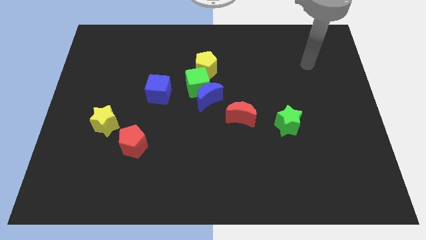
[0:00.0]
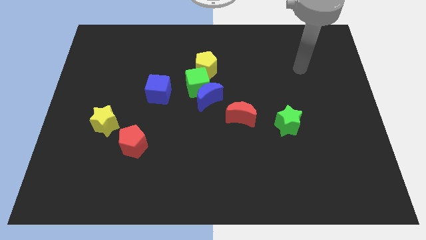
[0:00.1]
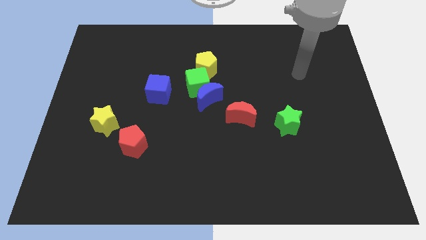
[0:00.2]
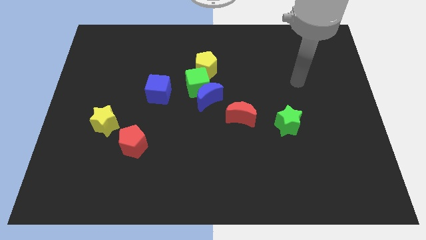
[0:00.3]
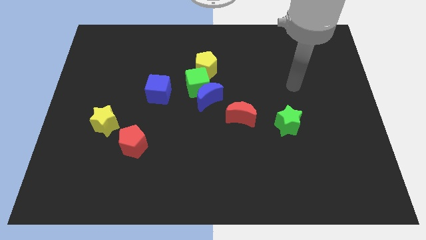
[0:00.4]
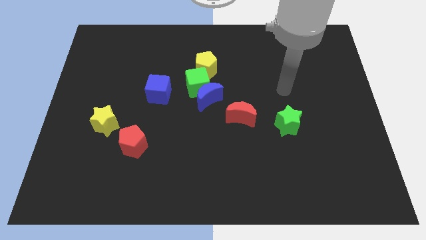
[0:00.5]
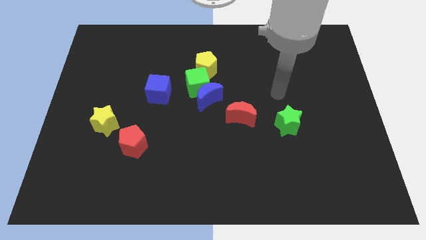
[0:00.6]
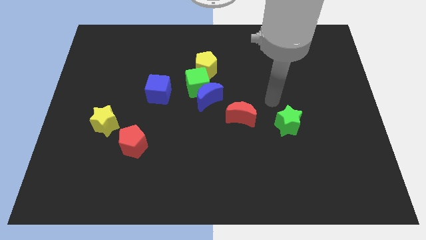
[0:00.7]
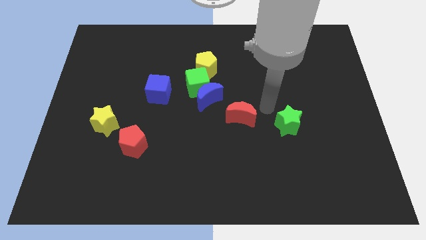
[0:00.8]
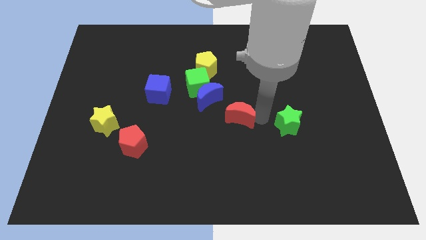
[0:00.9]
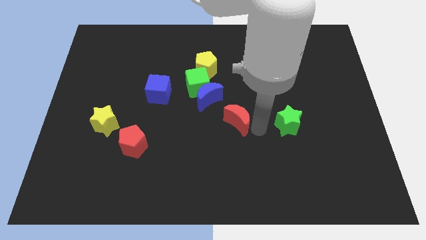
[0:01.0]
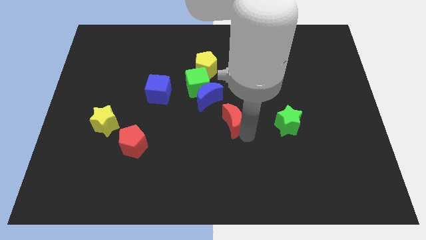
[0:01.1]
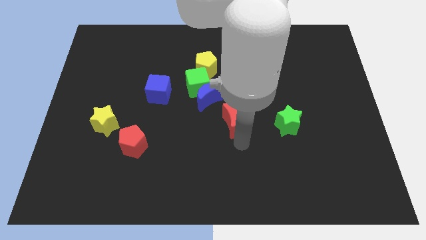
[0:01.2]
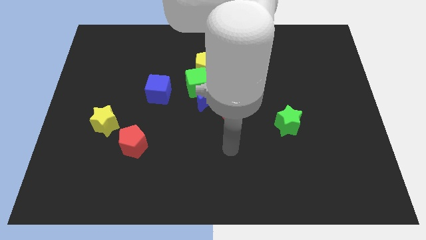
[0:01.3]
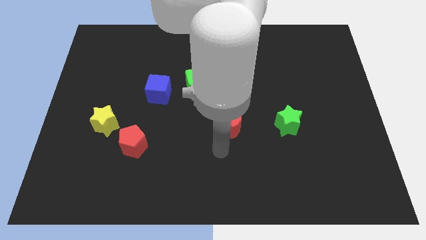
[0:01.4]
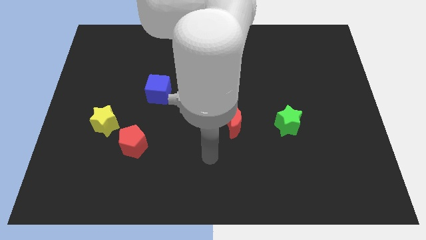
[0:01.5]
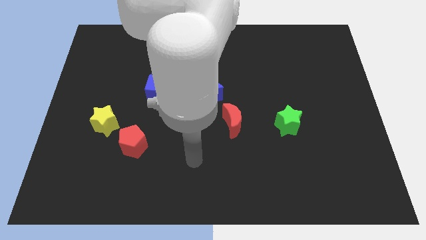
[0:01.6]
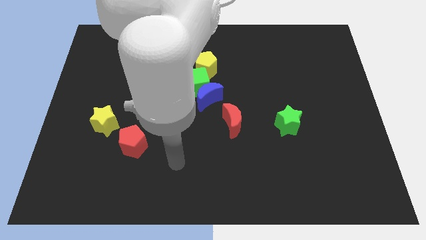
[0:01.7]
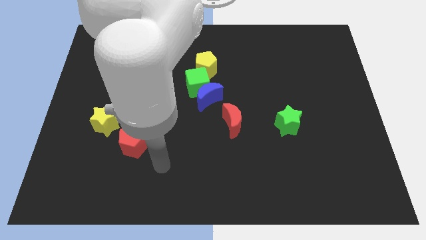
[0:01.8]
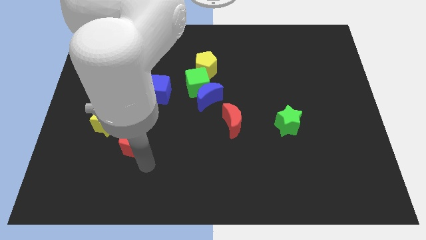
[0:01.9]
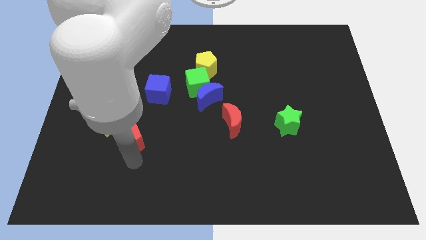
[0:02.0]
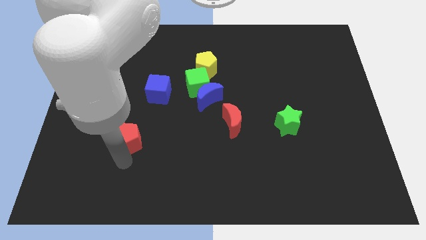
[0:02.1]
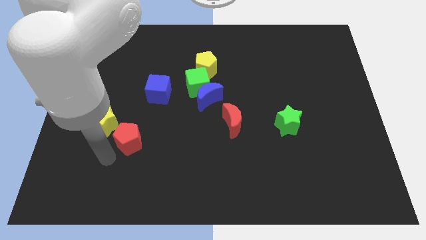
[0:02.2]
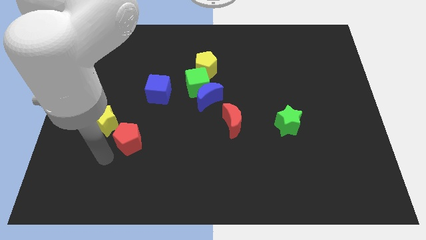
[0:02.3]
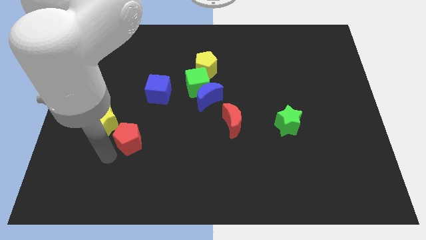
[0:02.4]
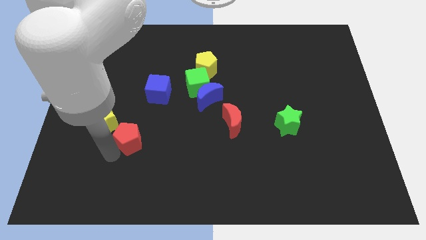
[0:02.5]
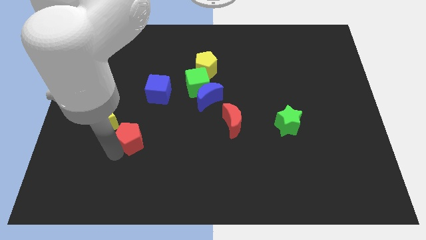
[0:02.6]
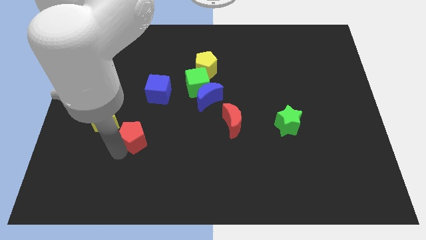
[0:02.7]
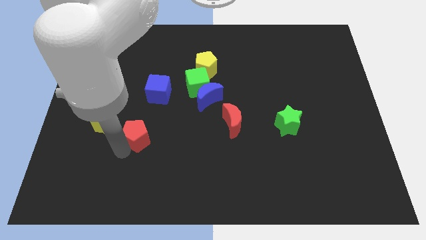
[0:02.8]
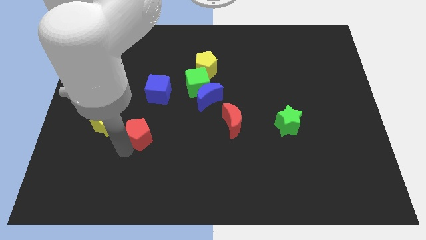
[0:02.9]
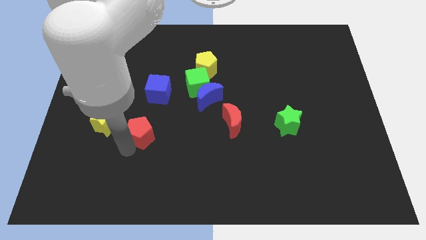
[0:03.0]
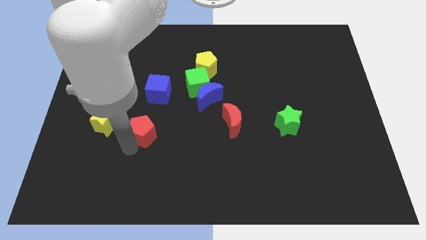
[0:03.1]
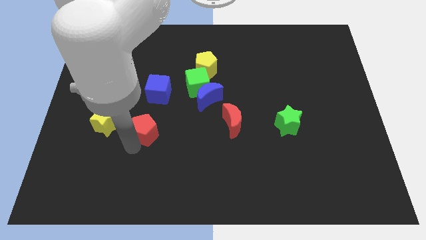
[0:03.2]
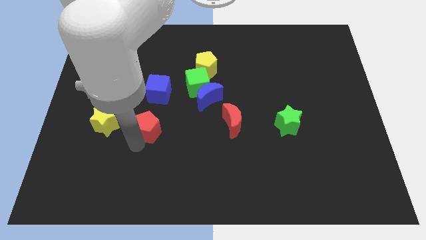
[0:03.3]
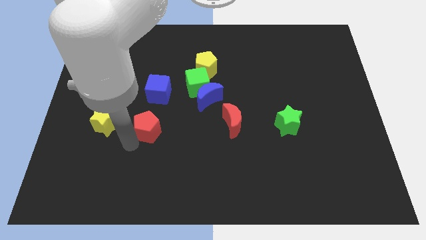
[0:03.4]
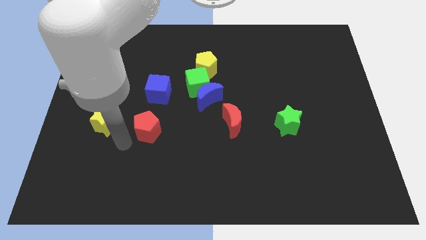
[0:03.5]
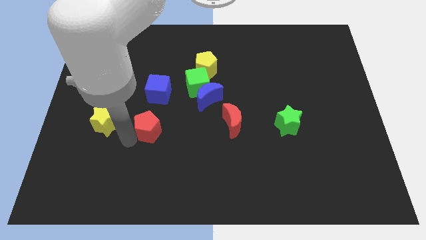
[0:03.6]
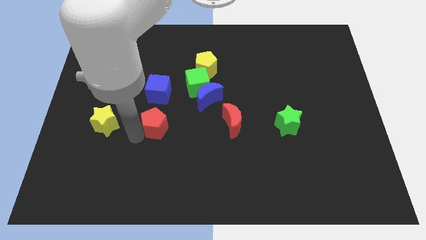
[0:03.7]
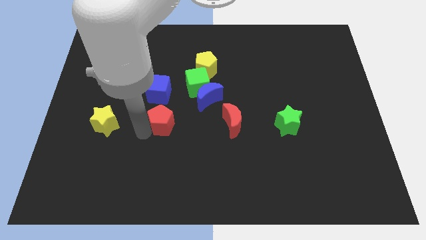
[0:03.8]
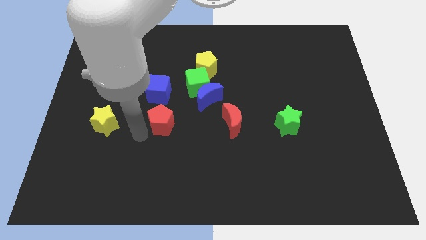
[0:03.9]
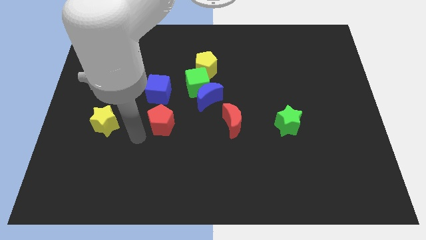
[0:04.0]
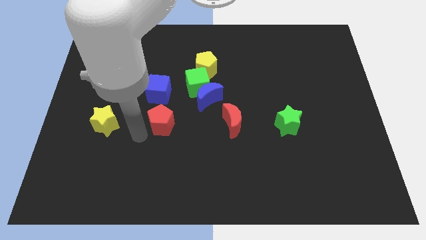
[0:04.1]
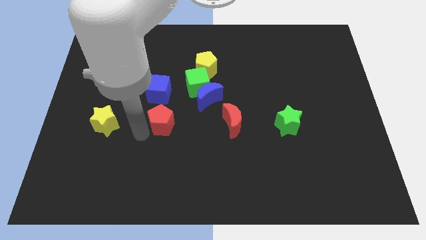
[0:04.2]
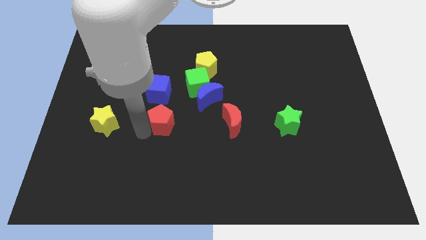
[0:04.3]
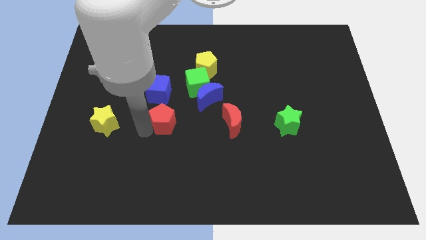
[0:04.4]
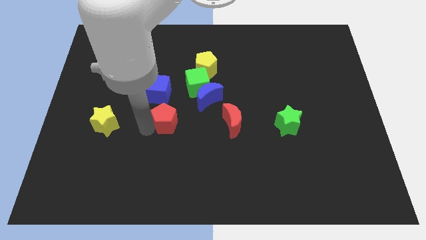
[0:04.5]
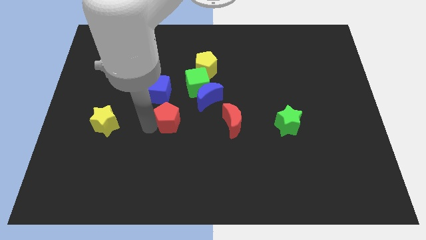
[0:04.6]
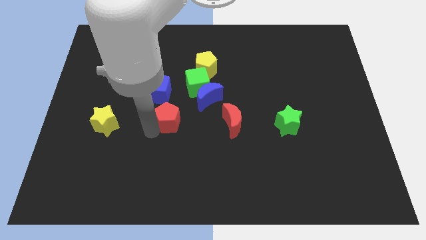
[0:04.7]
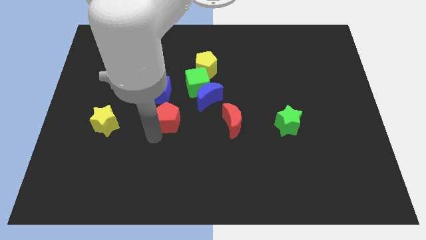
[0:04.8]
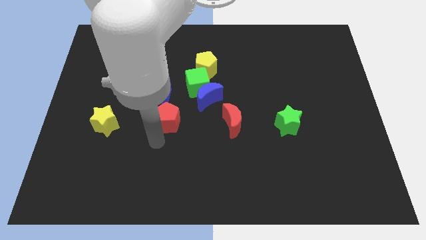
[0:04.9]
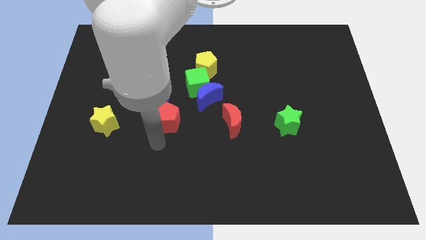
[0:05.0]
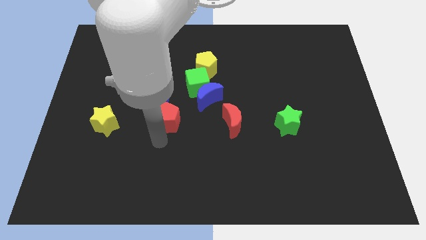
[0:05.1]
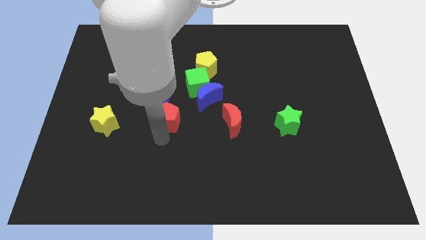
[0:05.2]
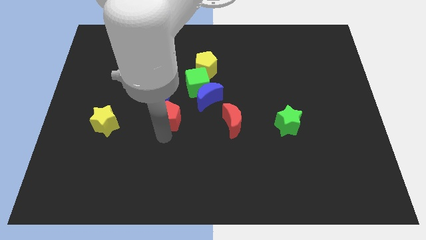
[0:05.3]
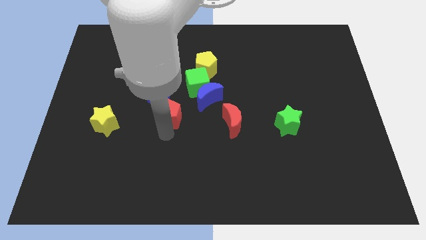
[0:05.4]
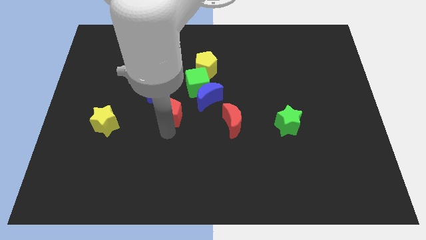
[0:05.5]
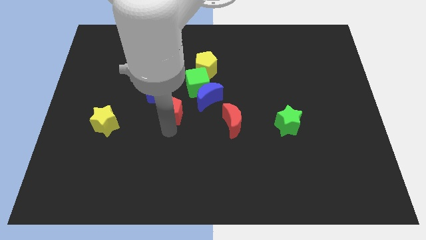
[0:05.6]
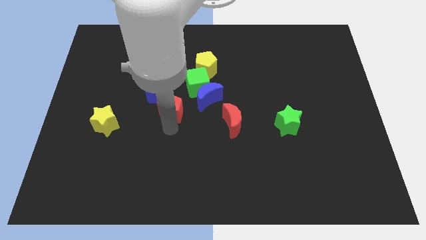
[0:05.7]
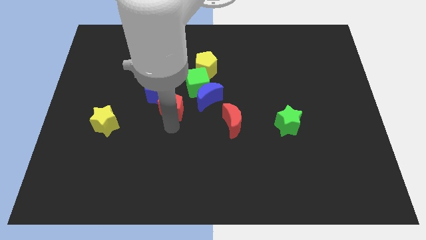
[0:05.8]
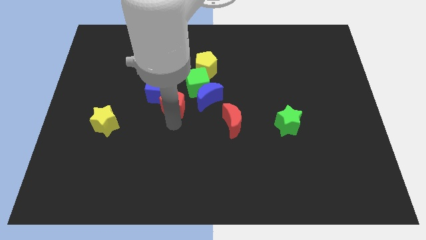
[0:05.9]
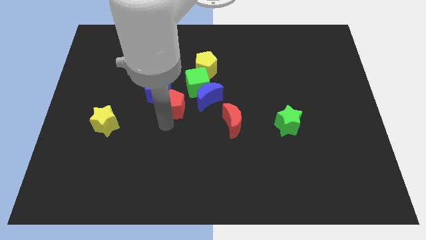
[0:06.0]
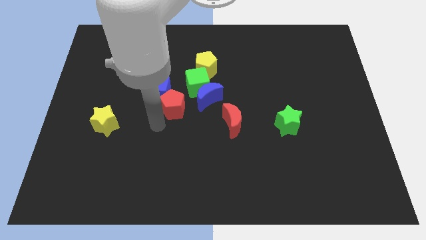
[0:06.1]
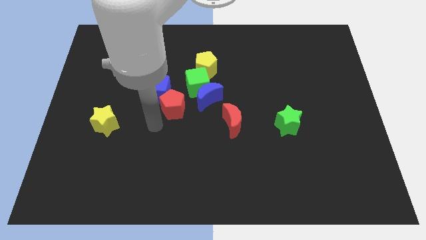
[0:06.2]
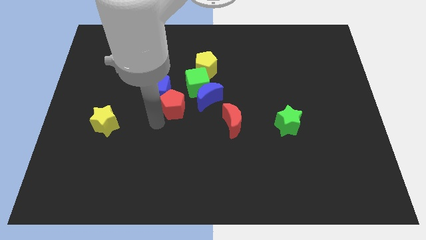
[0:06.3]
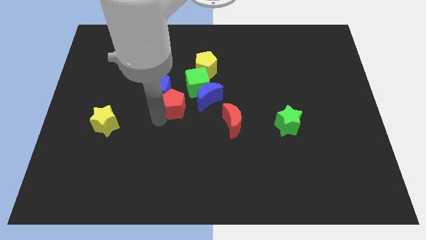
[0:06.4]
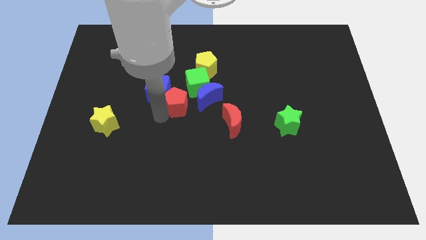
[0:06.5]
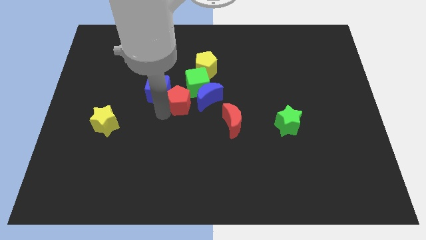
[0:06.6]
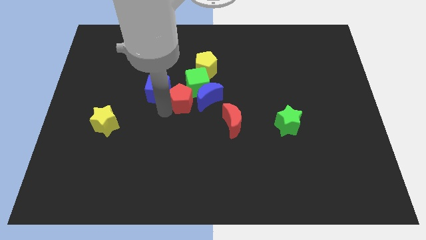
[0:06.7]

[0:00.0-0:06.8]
move the red pentagon close to the green cube

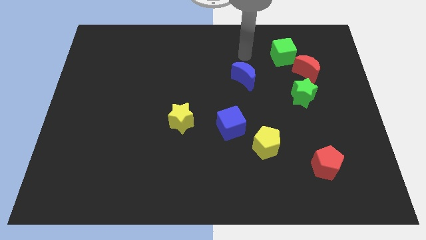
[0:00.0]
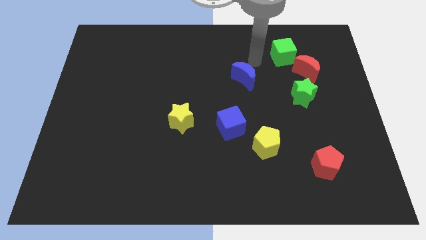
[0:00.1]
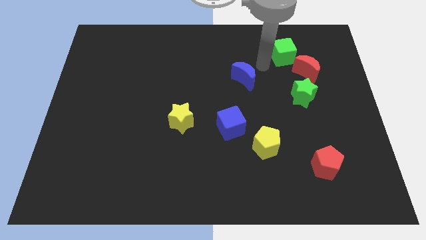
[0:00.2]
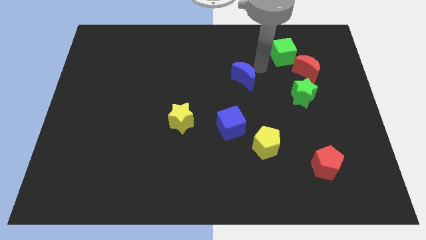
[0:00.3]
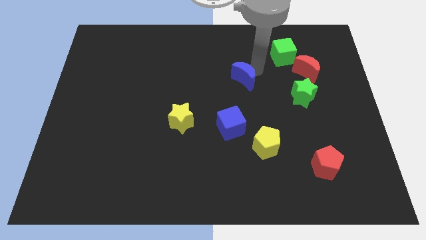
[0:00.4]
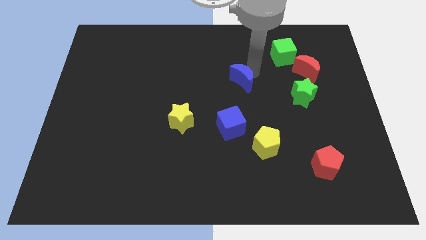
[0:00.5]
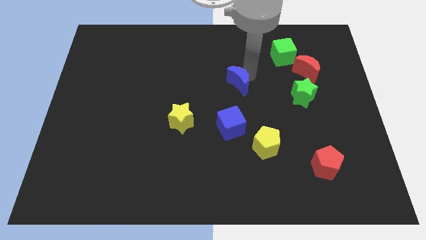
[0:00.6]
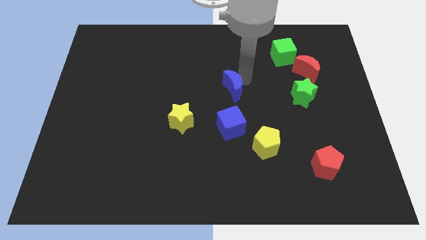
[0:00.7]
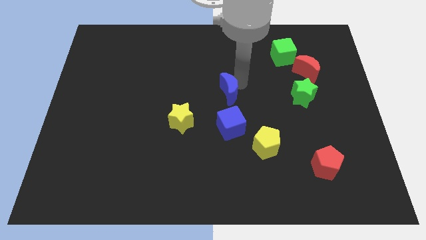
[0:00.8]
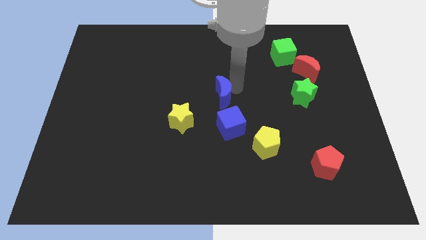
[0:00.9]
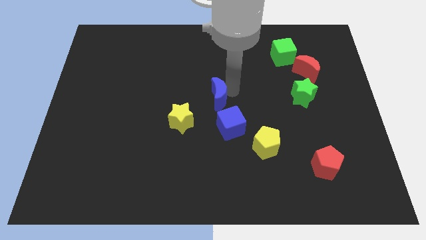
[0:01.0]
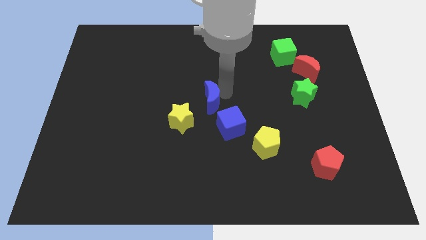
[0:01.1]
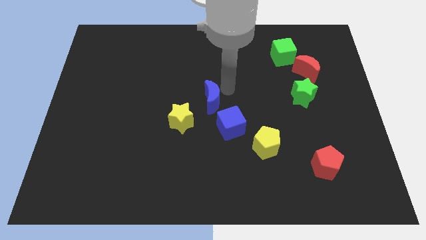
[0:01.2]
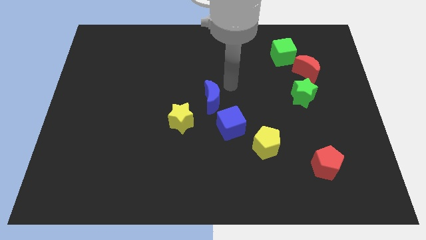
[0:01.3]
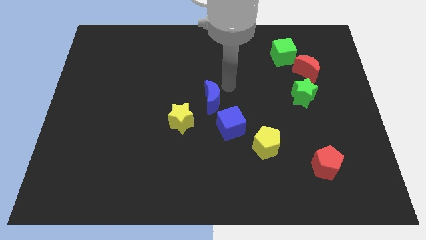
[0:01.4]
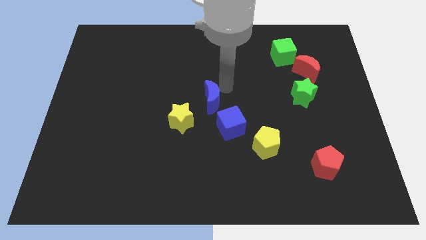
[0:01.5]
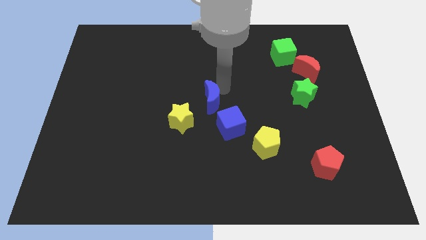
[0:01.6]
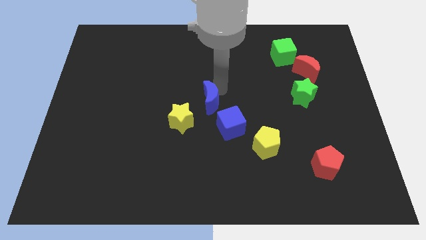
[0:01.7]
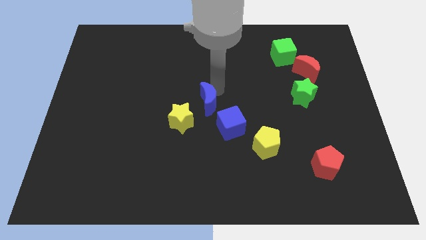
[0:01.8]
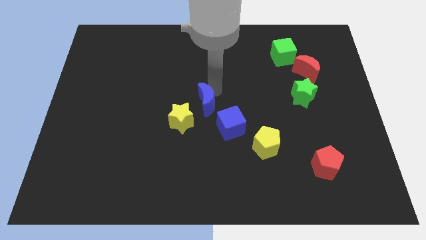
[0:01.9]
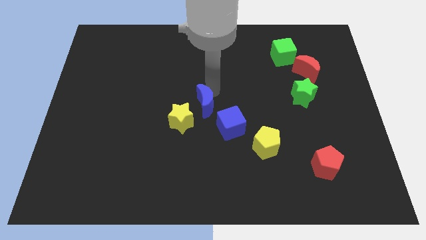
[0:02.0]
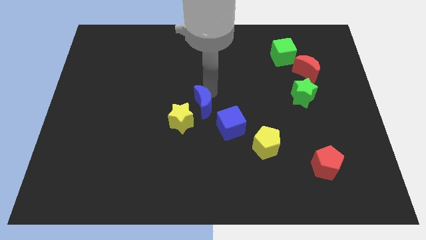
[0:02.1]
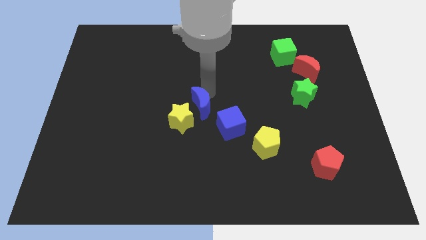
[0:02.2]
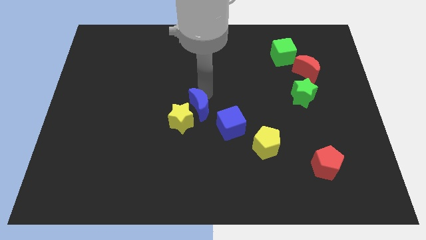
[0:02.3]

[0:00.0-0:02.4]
put the blue moon next to the yellow star
